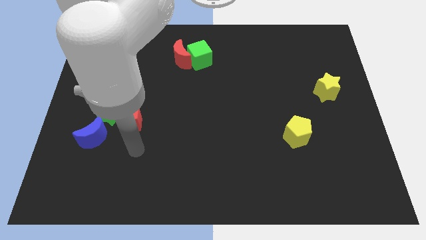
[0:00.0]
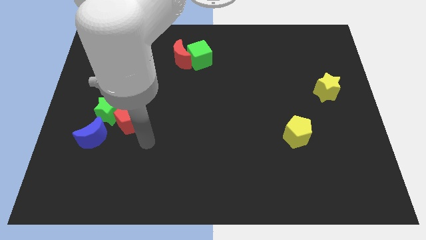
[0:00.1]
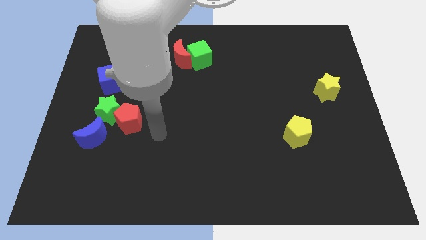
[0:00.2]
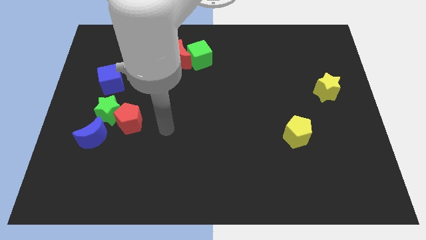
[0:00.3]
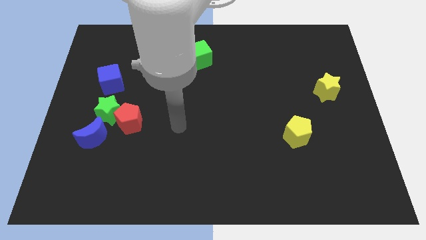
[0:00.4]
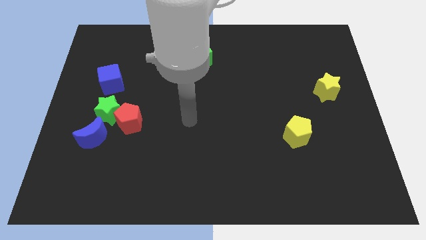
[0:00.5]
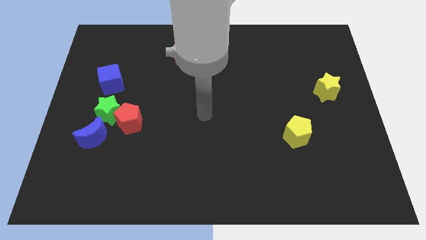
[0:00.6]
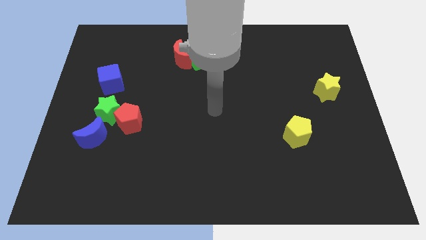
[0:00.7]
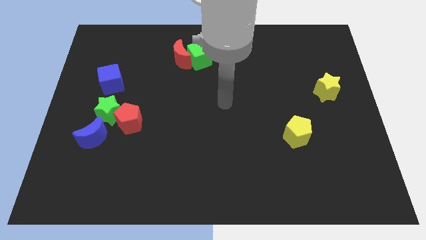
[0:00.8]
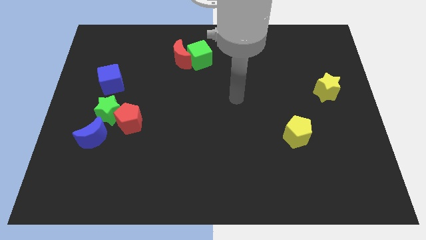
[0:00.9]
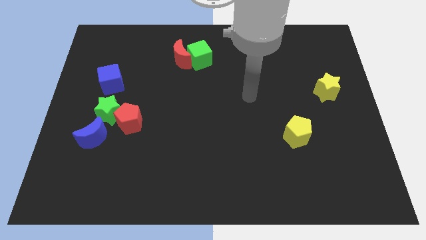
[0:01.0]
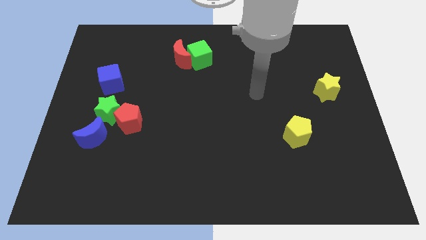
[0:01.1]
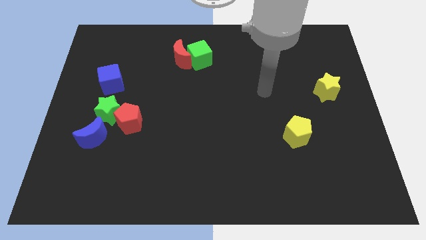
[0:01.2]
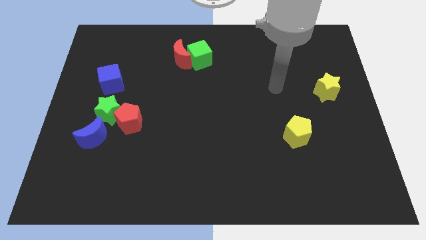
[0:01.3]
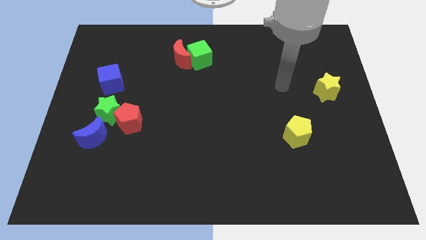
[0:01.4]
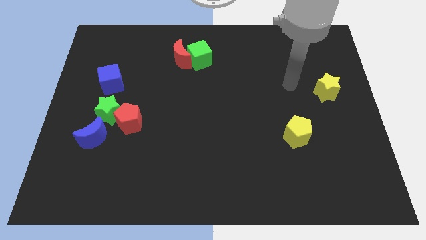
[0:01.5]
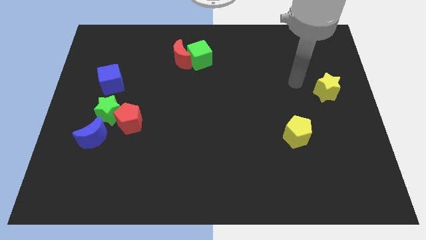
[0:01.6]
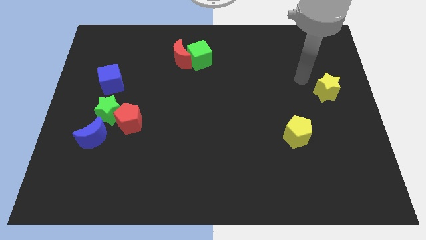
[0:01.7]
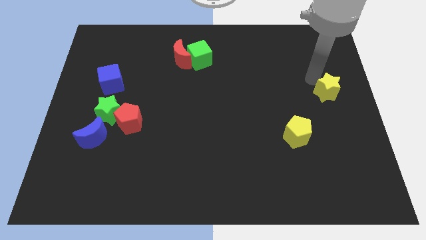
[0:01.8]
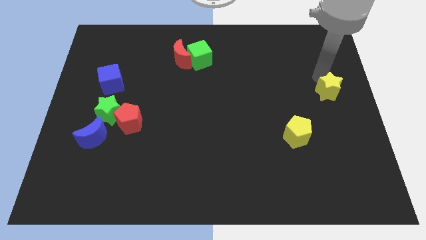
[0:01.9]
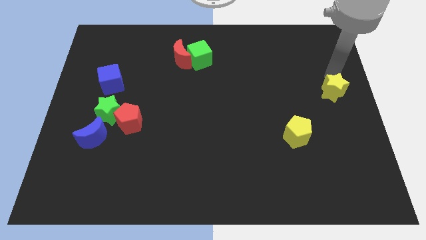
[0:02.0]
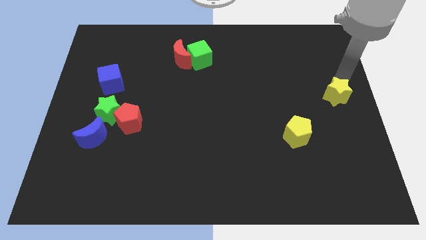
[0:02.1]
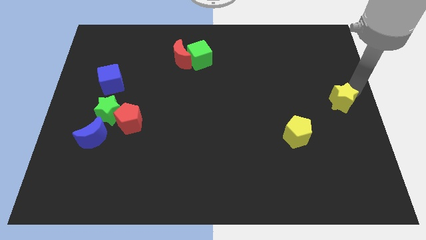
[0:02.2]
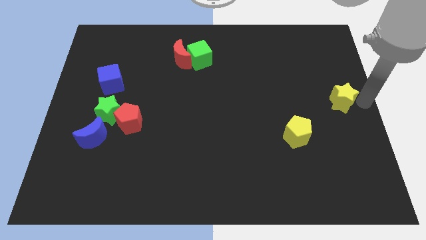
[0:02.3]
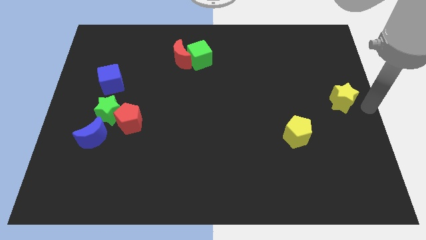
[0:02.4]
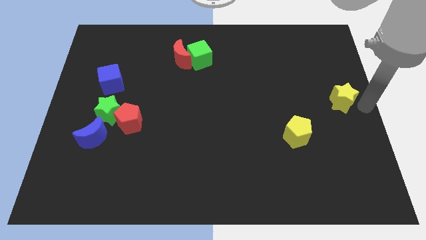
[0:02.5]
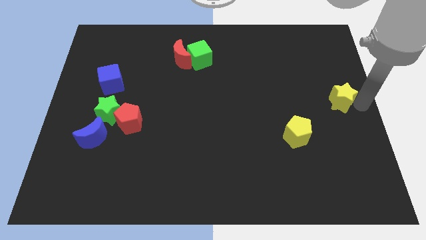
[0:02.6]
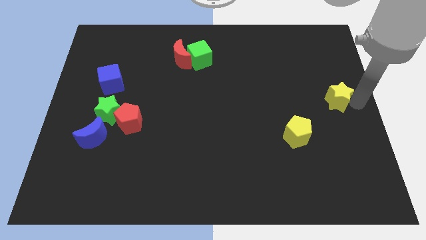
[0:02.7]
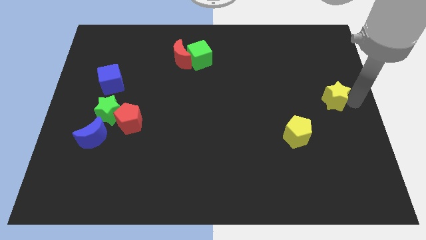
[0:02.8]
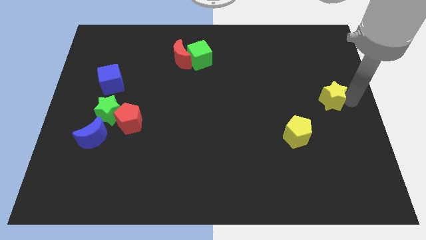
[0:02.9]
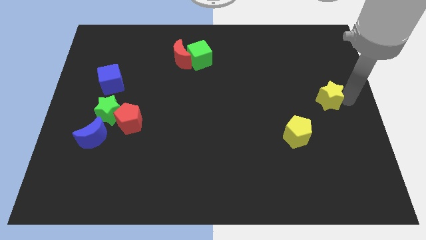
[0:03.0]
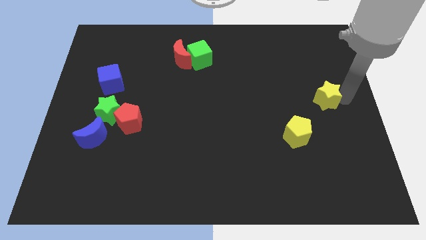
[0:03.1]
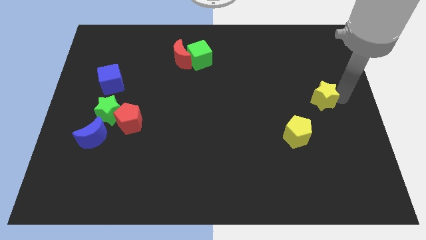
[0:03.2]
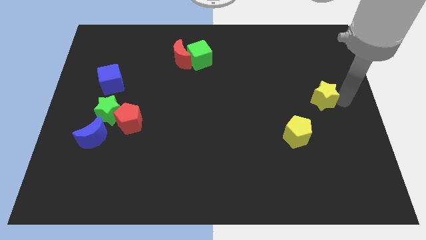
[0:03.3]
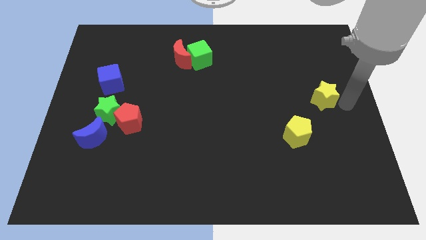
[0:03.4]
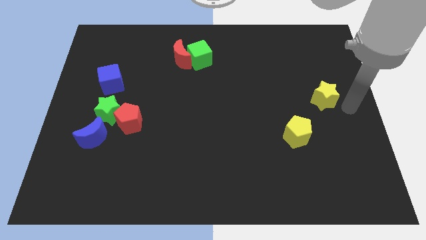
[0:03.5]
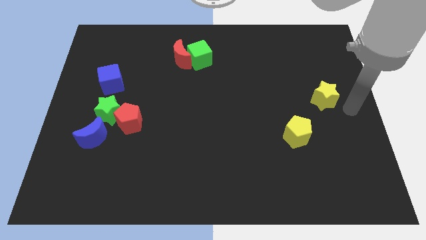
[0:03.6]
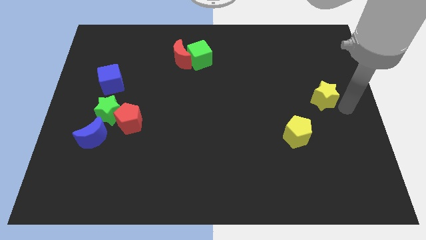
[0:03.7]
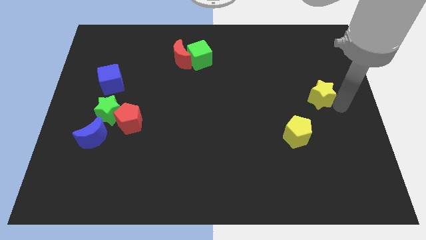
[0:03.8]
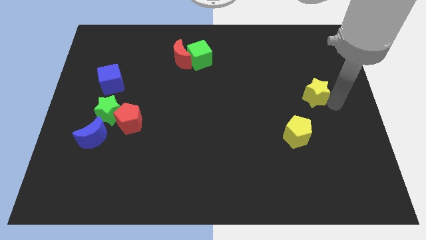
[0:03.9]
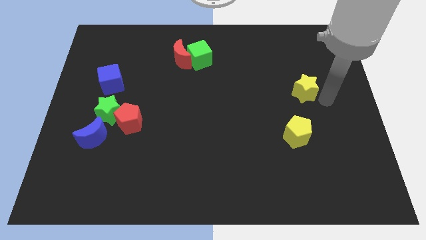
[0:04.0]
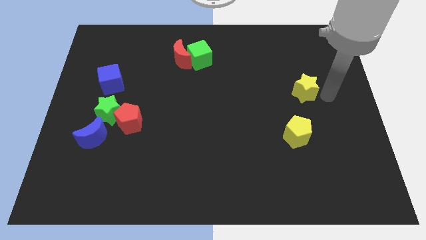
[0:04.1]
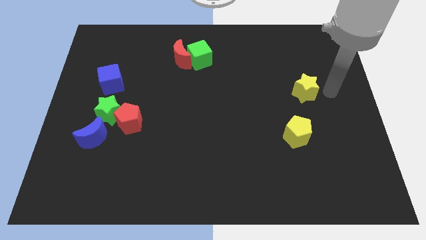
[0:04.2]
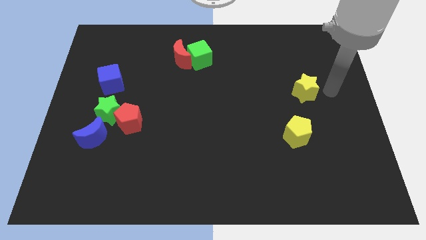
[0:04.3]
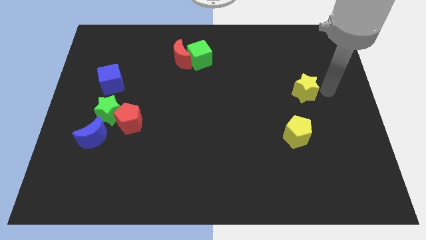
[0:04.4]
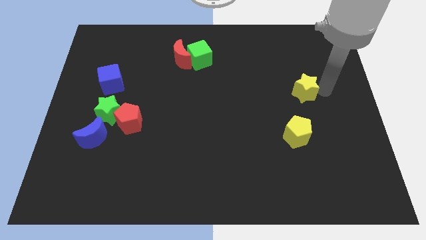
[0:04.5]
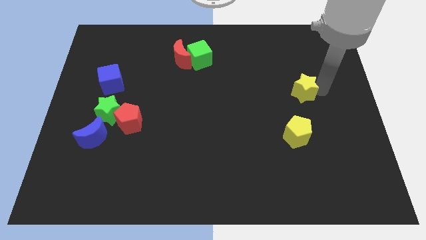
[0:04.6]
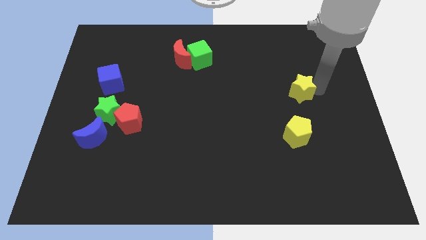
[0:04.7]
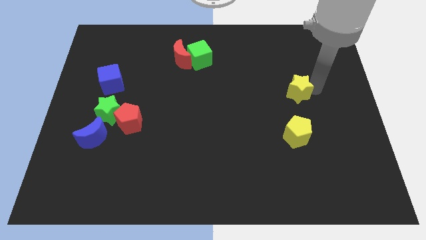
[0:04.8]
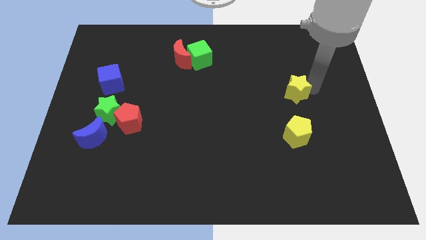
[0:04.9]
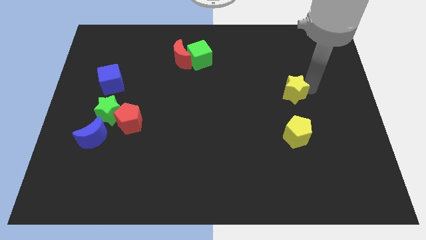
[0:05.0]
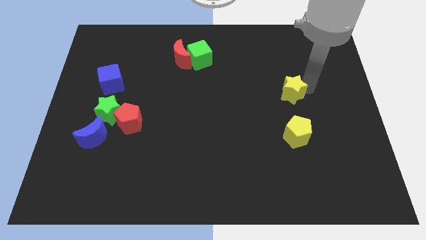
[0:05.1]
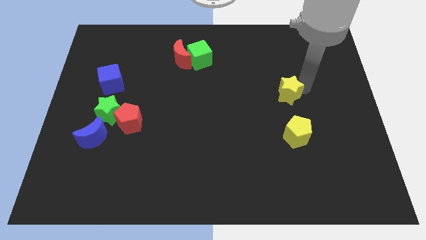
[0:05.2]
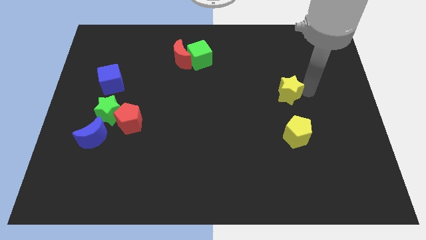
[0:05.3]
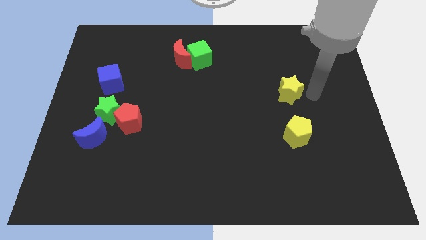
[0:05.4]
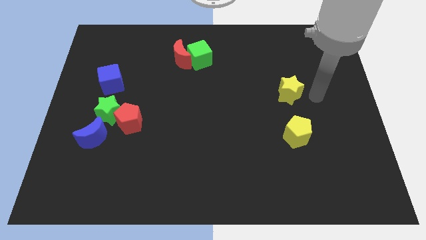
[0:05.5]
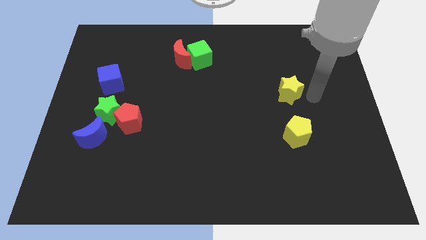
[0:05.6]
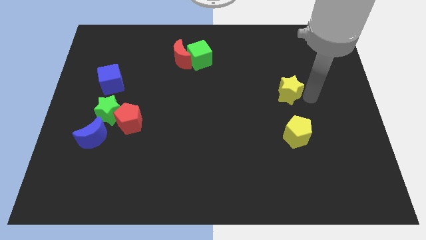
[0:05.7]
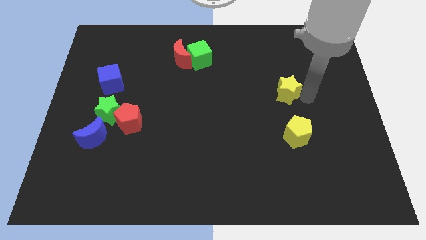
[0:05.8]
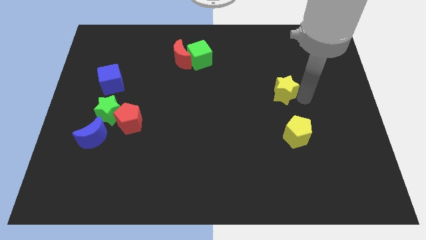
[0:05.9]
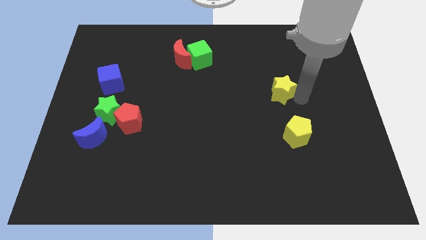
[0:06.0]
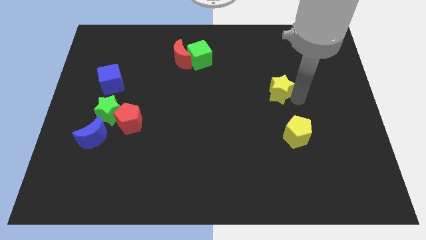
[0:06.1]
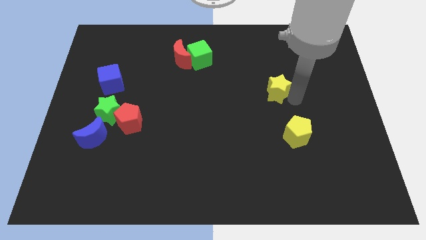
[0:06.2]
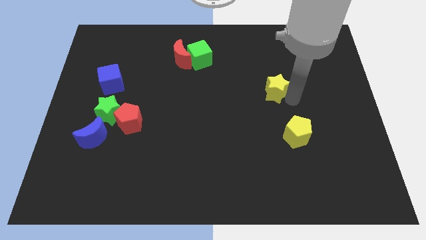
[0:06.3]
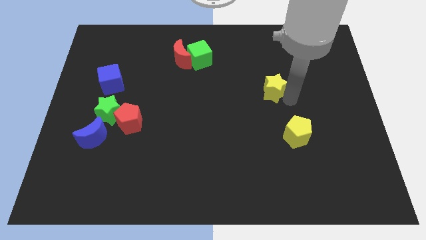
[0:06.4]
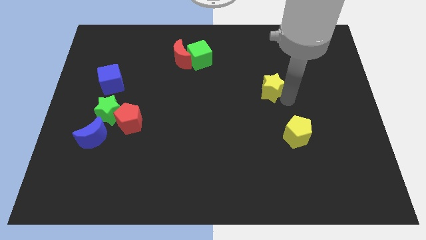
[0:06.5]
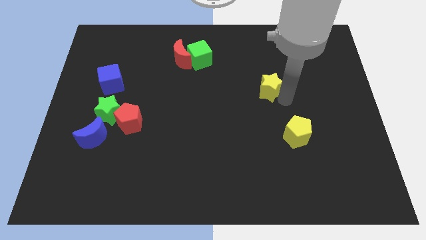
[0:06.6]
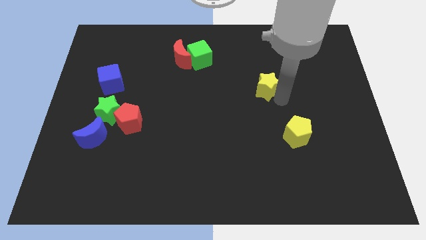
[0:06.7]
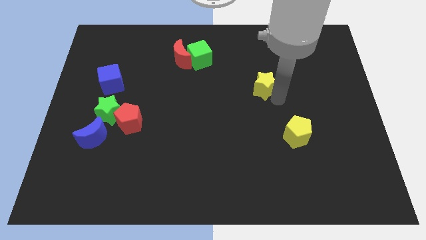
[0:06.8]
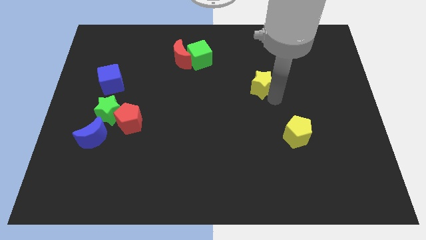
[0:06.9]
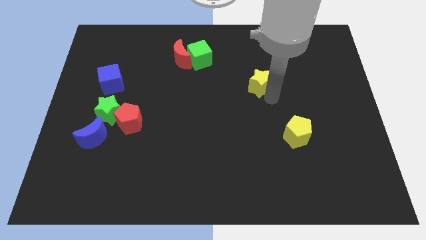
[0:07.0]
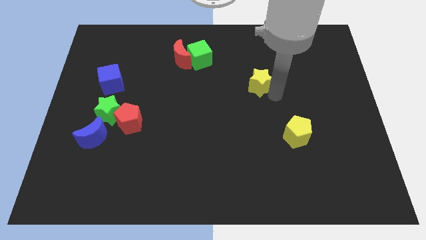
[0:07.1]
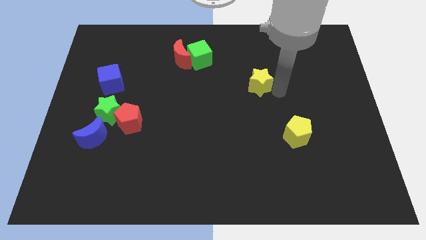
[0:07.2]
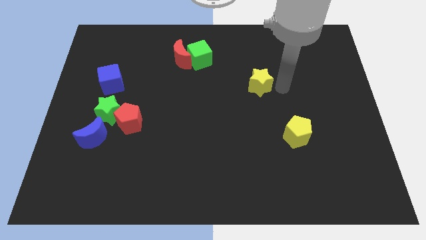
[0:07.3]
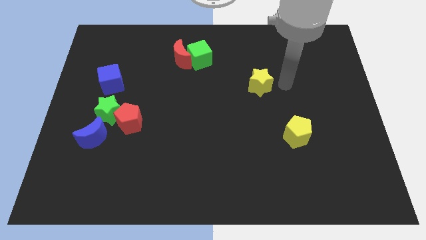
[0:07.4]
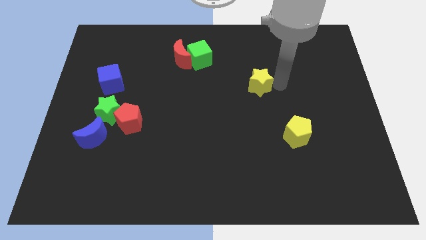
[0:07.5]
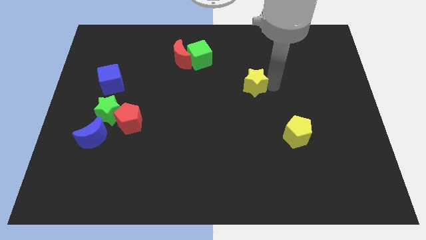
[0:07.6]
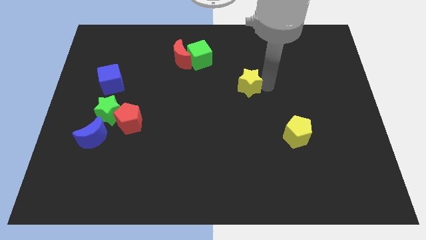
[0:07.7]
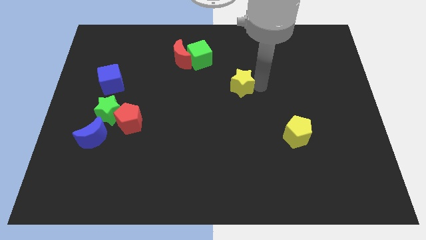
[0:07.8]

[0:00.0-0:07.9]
push the yellow star to the left
